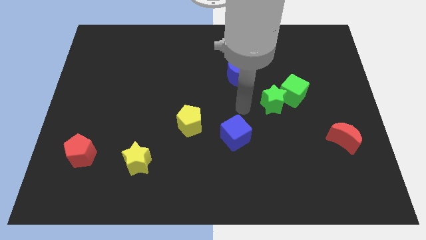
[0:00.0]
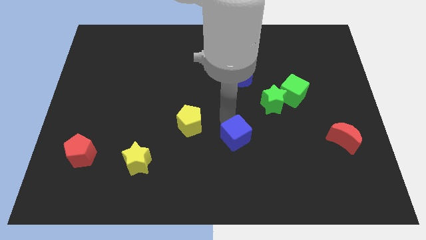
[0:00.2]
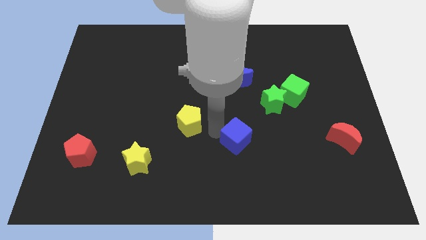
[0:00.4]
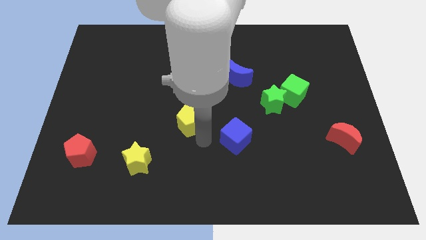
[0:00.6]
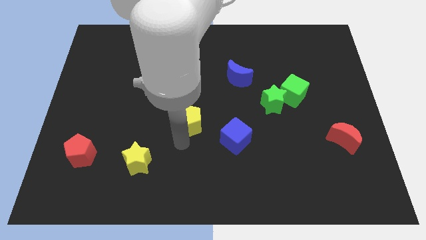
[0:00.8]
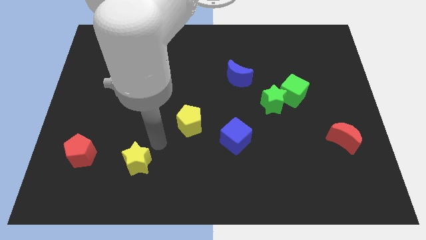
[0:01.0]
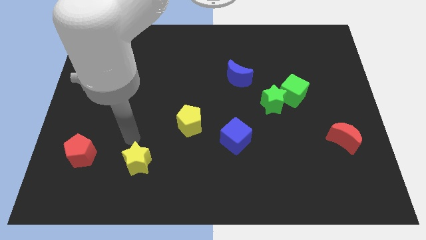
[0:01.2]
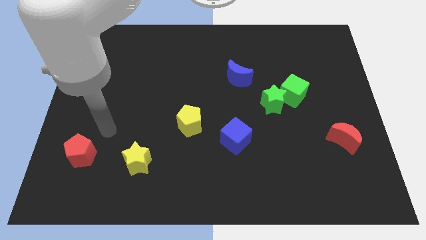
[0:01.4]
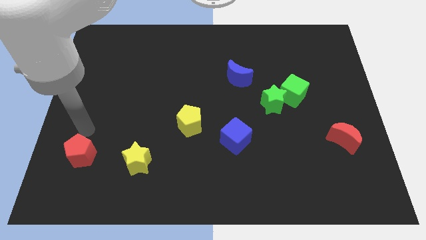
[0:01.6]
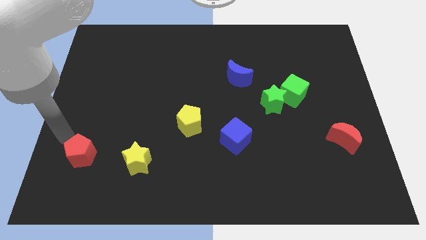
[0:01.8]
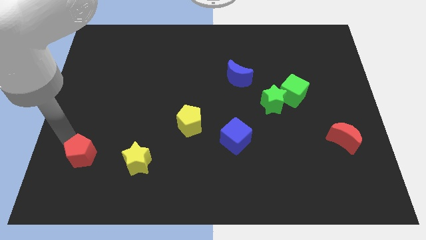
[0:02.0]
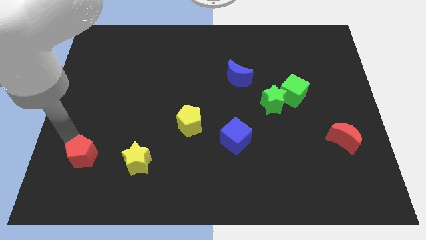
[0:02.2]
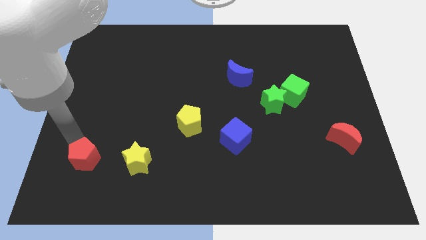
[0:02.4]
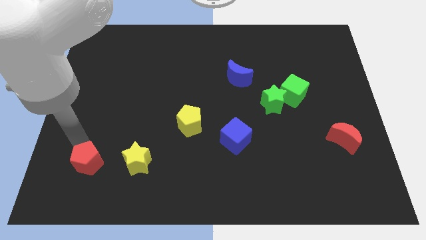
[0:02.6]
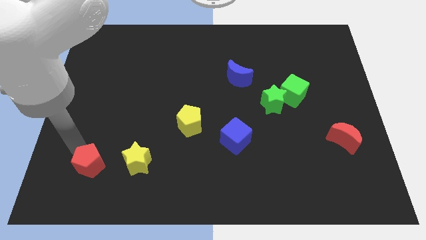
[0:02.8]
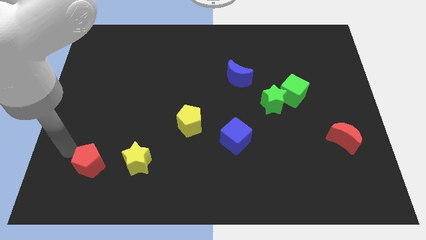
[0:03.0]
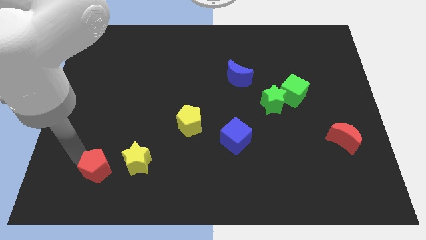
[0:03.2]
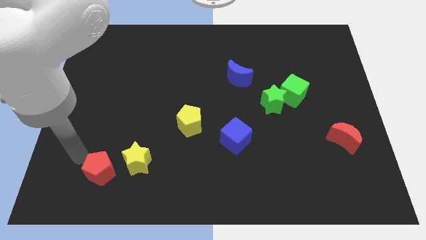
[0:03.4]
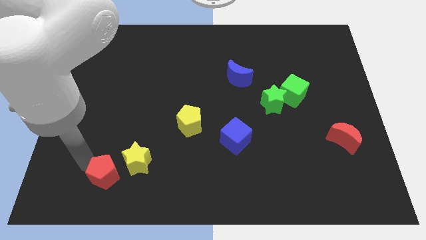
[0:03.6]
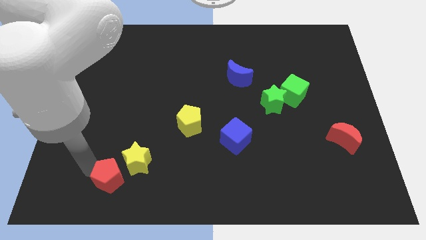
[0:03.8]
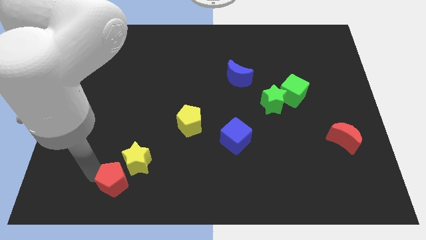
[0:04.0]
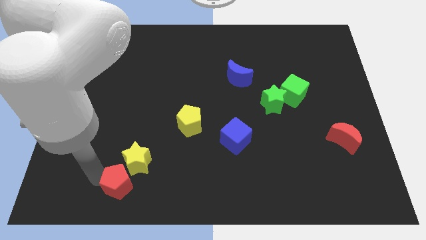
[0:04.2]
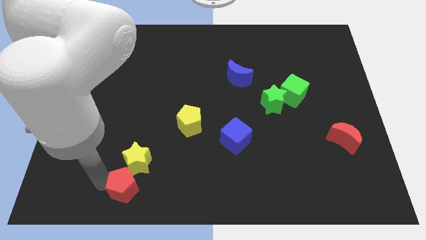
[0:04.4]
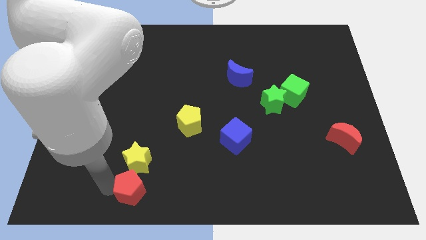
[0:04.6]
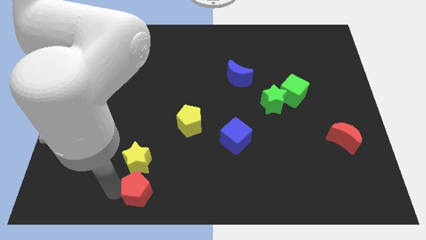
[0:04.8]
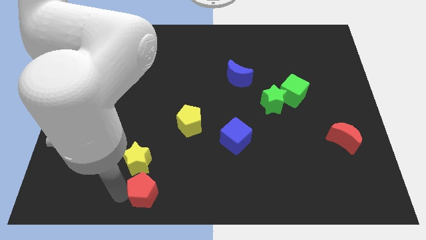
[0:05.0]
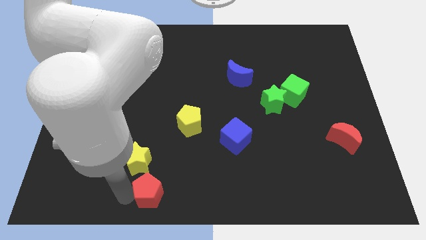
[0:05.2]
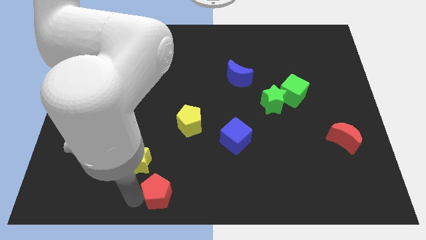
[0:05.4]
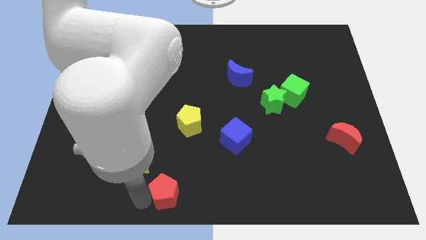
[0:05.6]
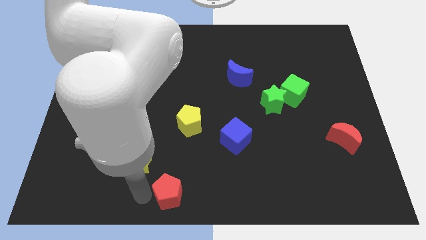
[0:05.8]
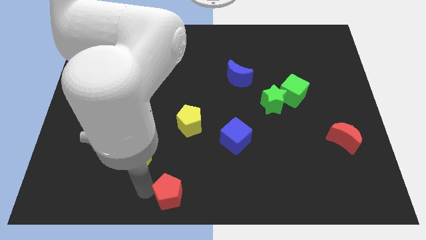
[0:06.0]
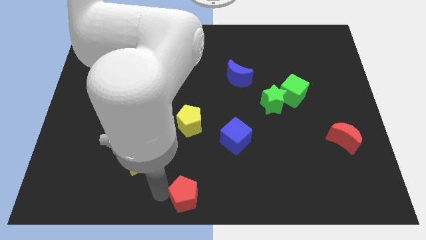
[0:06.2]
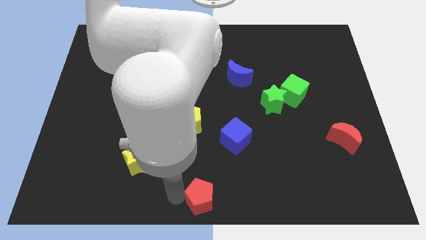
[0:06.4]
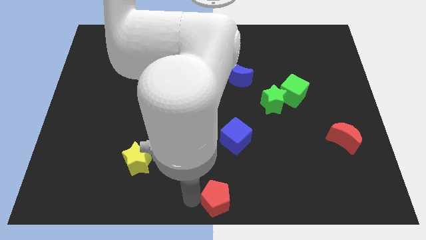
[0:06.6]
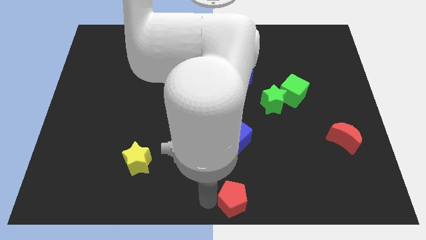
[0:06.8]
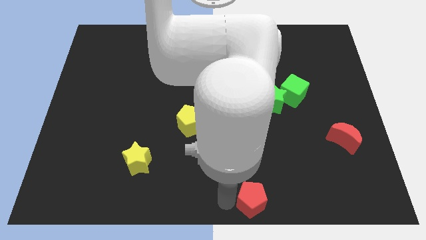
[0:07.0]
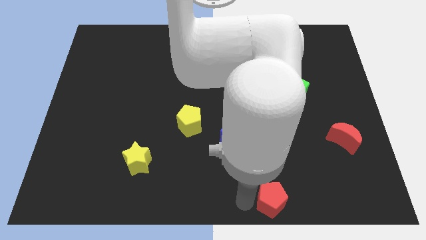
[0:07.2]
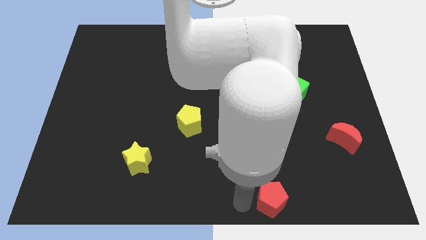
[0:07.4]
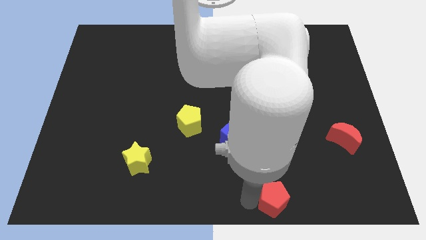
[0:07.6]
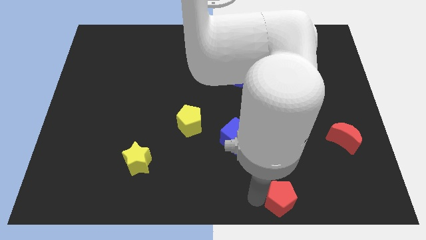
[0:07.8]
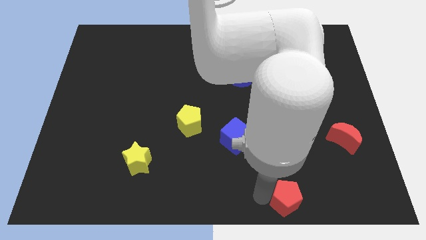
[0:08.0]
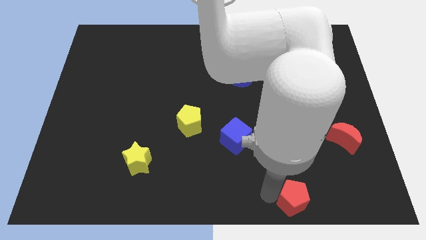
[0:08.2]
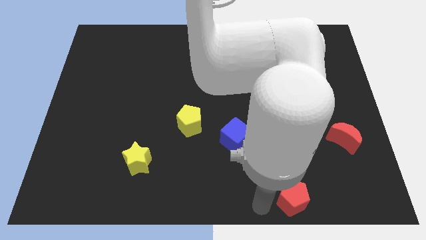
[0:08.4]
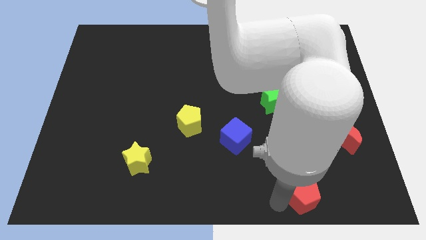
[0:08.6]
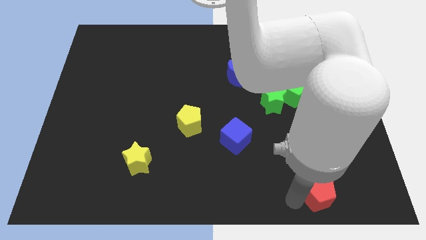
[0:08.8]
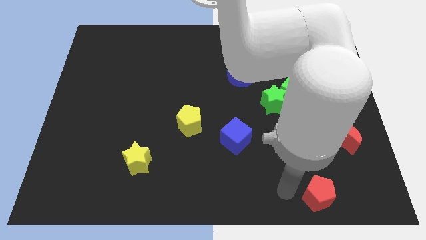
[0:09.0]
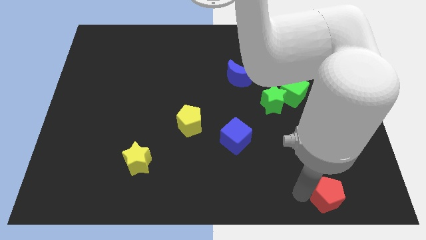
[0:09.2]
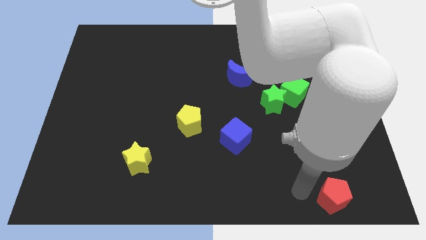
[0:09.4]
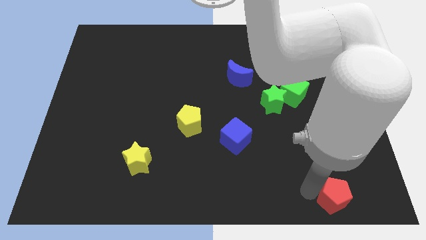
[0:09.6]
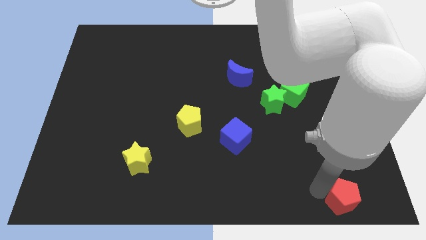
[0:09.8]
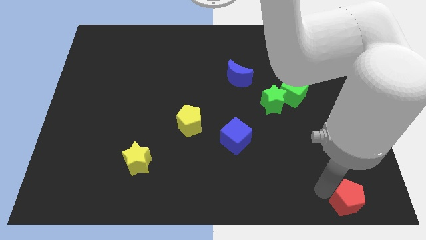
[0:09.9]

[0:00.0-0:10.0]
slide the red pentagon to the bottom right corner

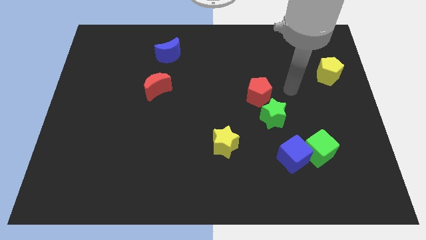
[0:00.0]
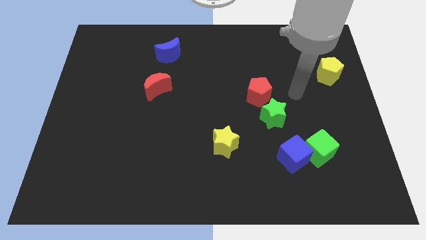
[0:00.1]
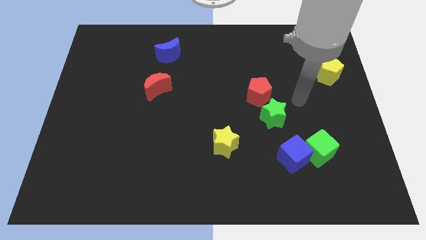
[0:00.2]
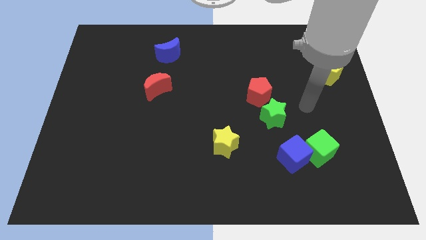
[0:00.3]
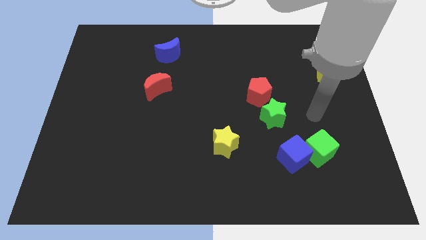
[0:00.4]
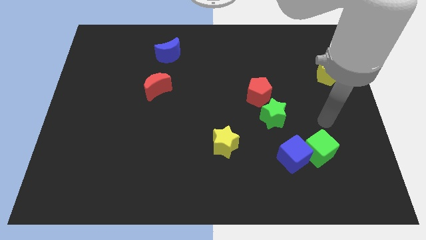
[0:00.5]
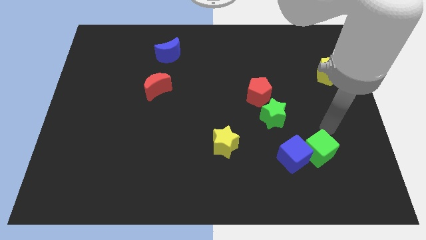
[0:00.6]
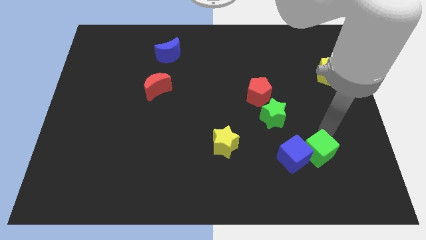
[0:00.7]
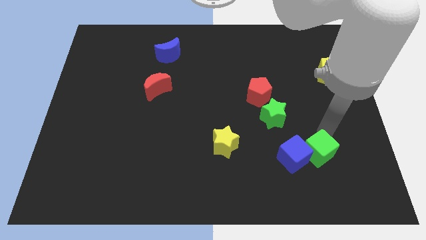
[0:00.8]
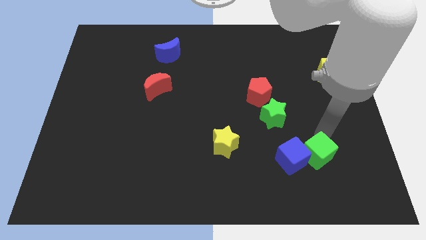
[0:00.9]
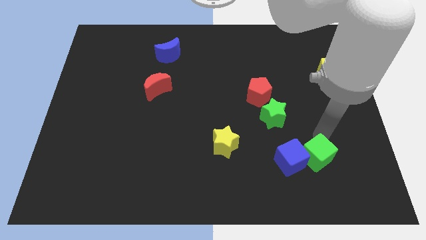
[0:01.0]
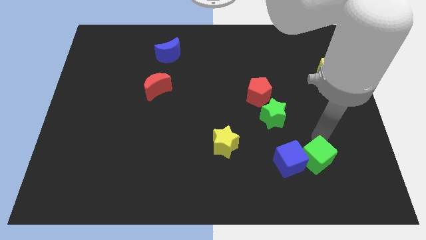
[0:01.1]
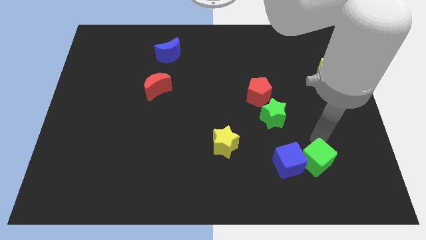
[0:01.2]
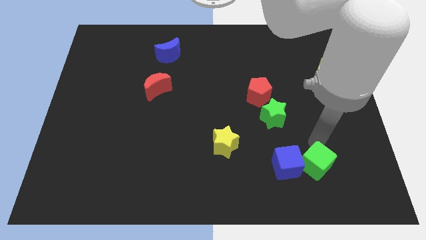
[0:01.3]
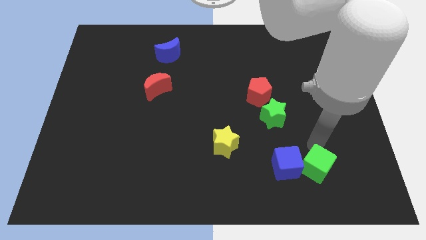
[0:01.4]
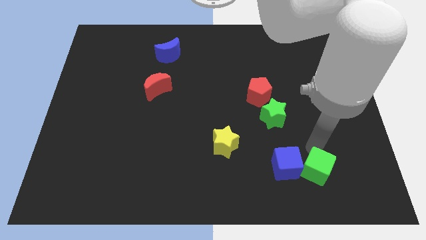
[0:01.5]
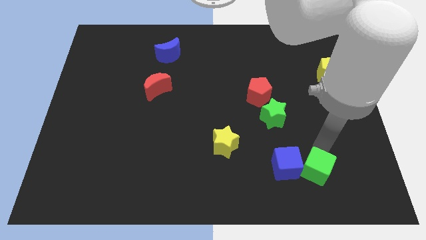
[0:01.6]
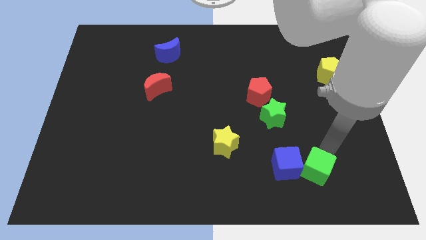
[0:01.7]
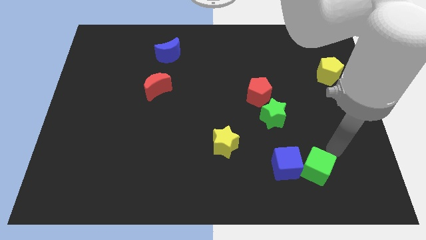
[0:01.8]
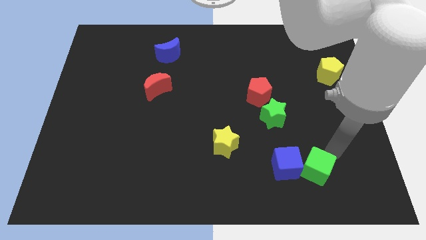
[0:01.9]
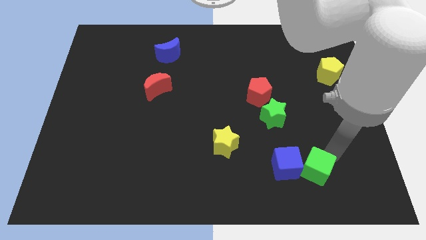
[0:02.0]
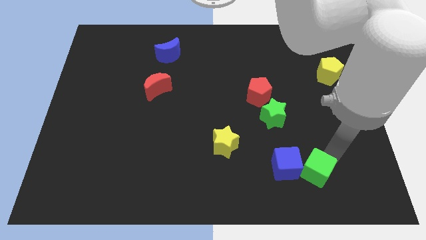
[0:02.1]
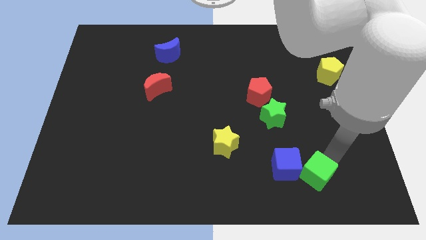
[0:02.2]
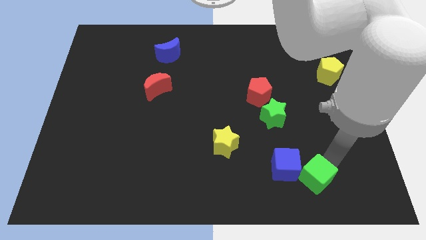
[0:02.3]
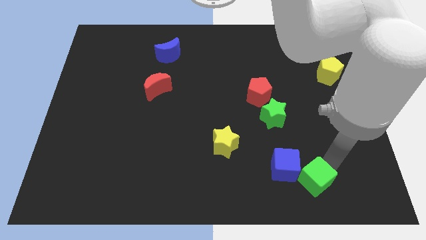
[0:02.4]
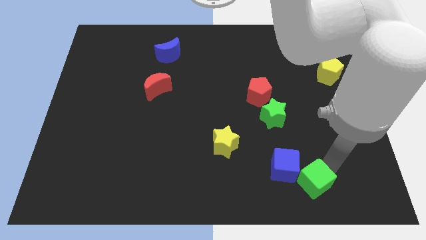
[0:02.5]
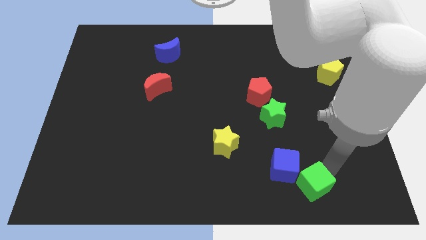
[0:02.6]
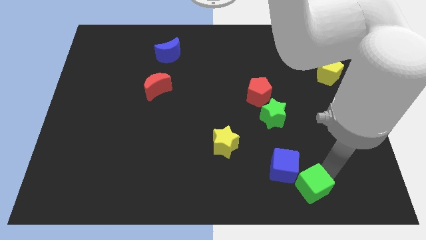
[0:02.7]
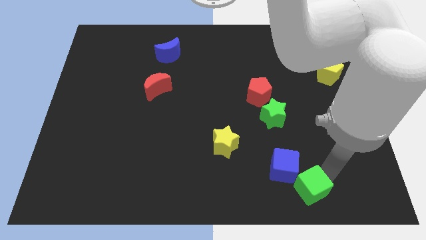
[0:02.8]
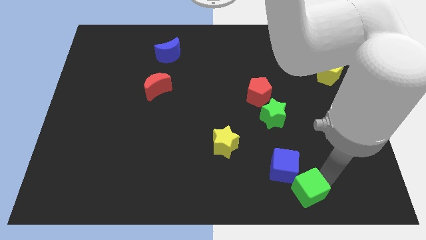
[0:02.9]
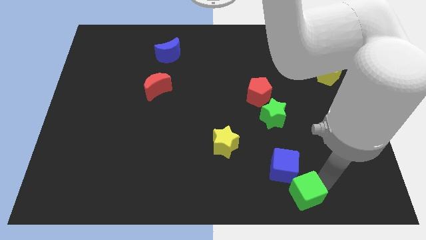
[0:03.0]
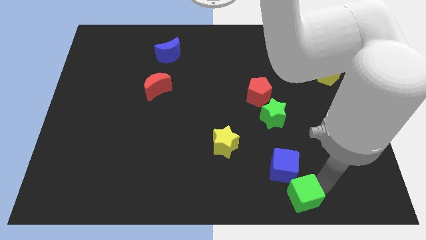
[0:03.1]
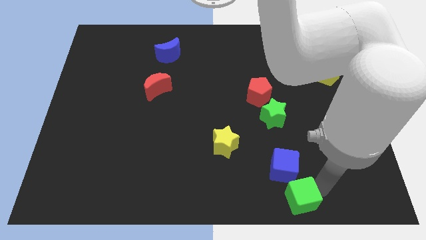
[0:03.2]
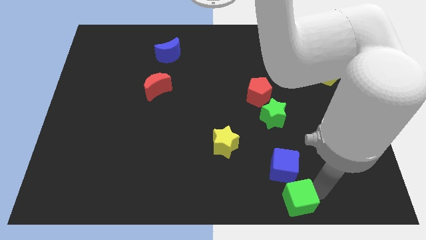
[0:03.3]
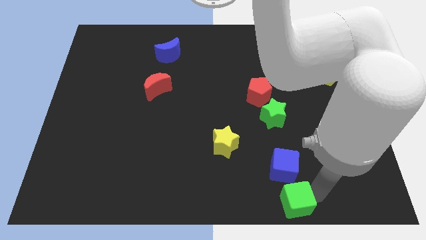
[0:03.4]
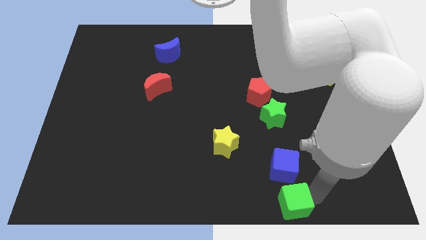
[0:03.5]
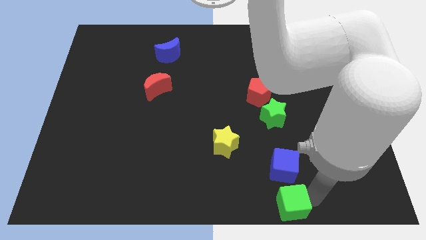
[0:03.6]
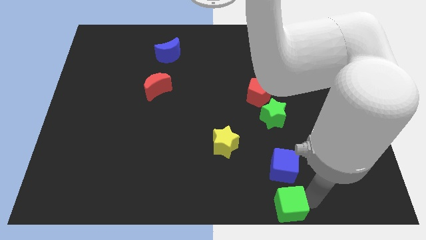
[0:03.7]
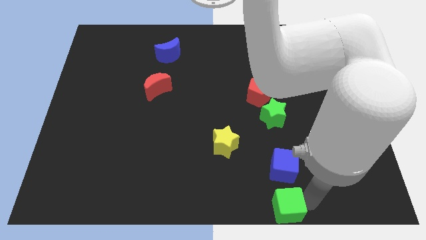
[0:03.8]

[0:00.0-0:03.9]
push the green cube to the bottom
